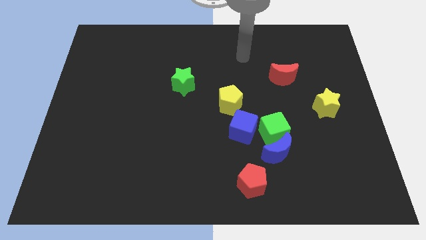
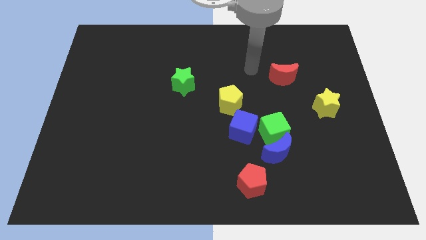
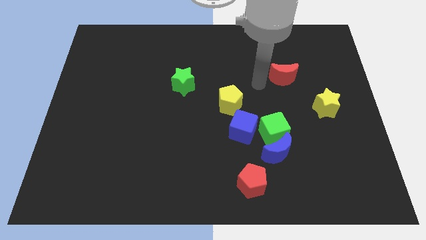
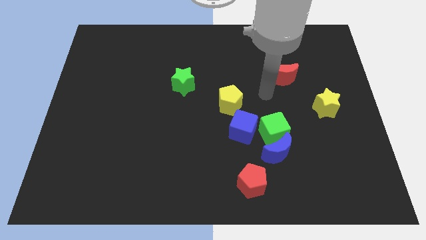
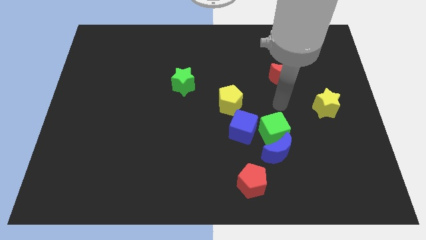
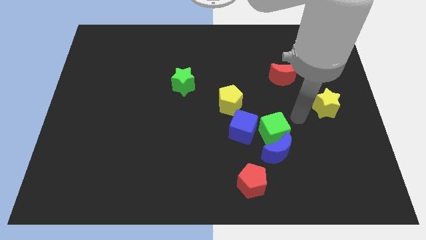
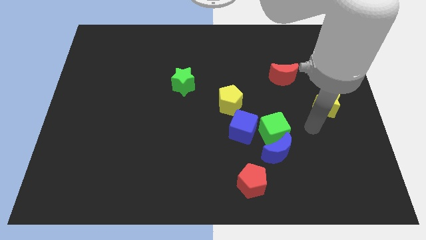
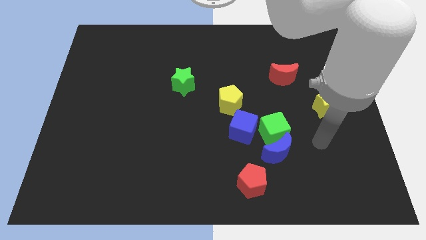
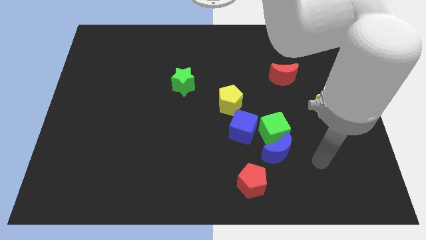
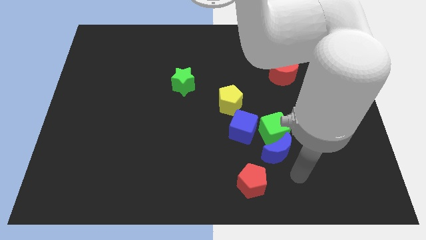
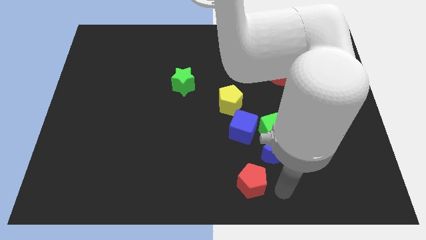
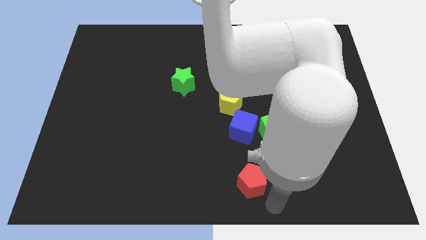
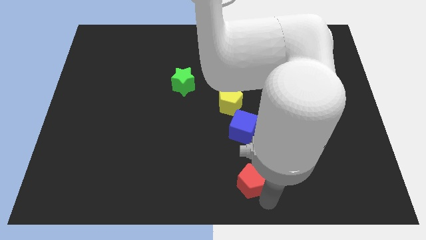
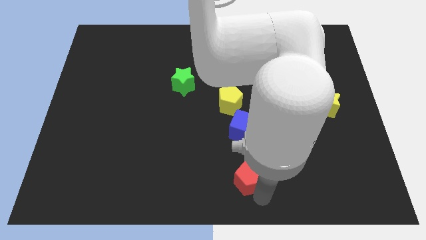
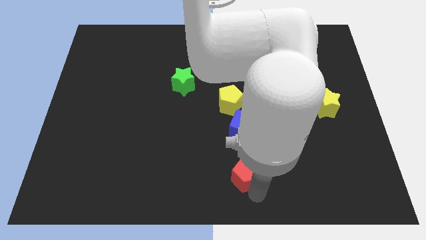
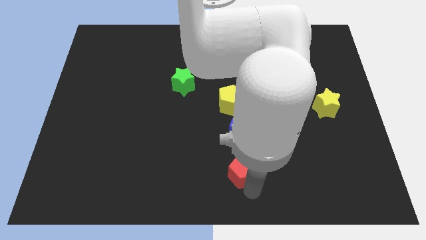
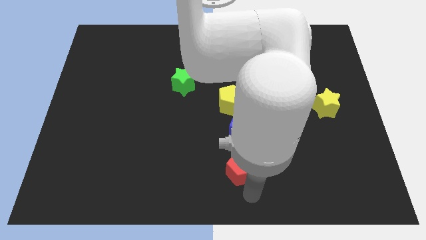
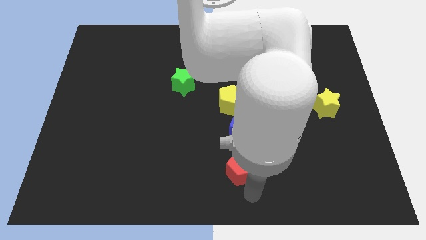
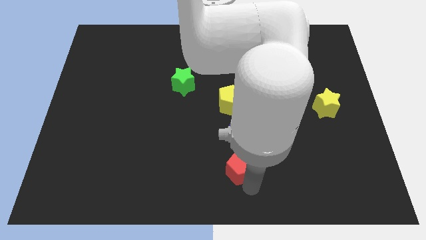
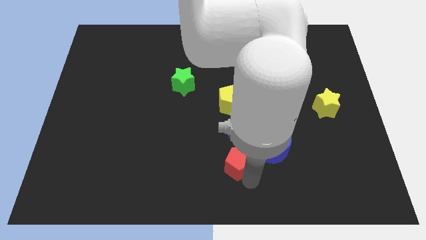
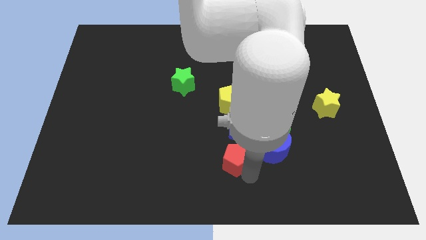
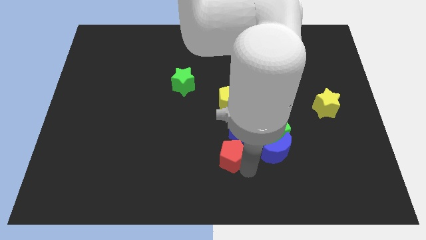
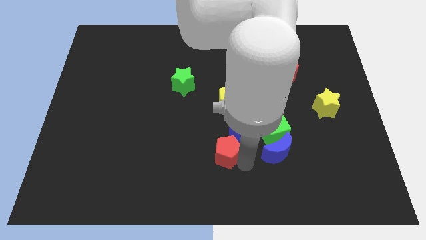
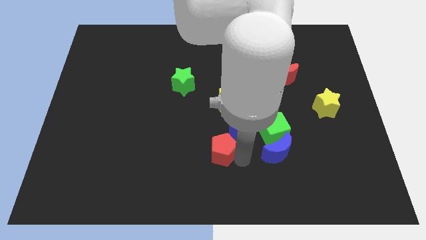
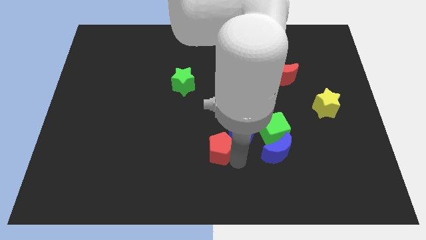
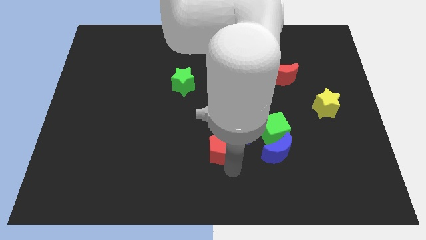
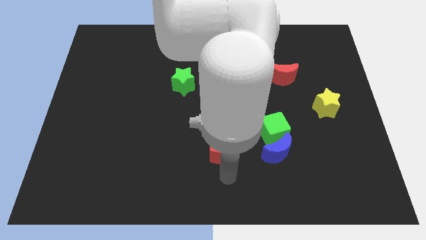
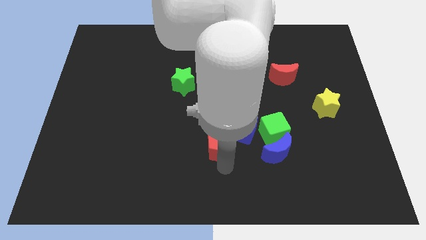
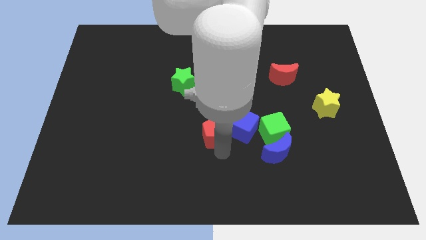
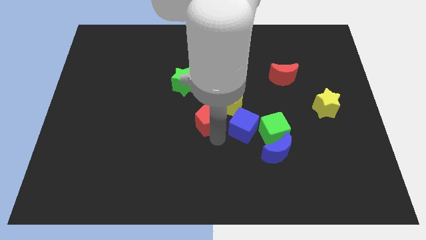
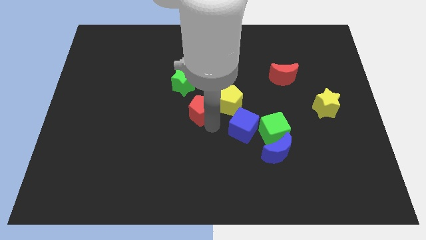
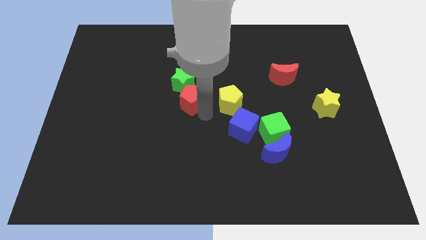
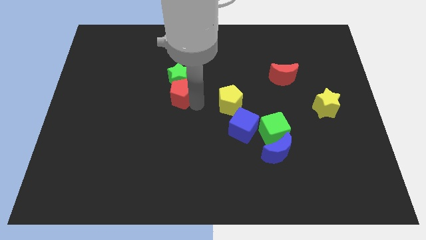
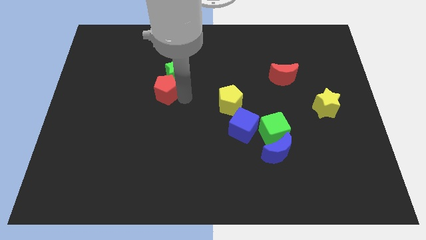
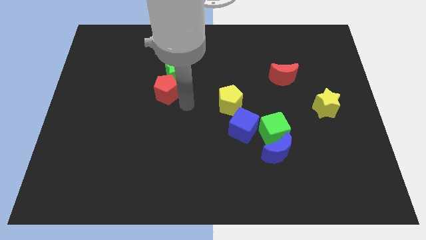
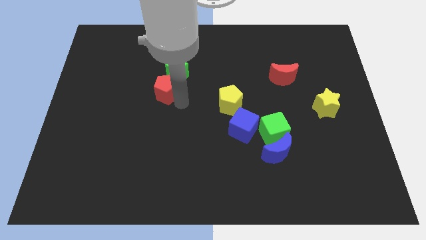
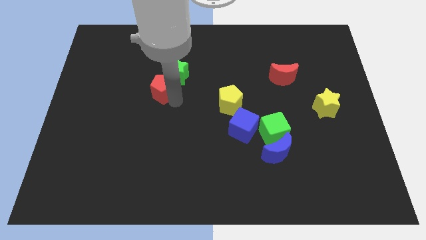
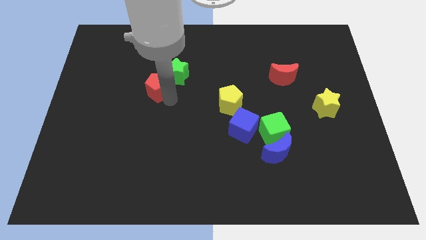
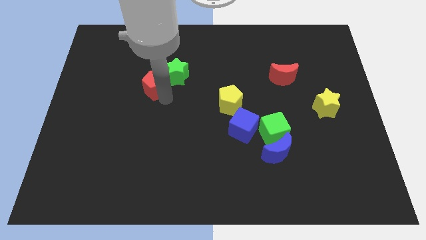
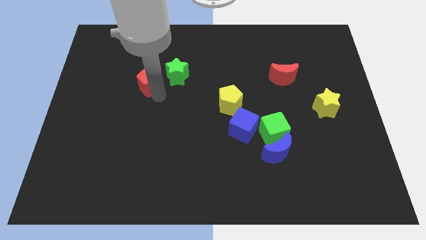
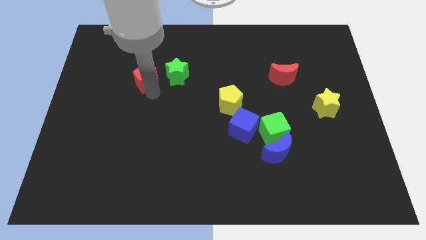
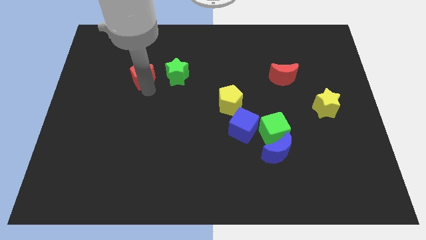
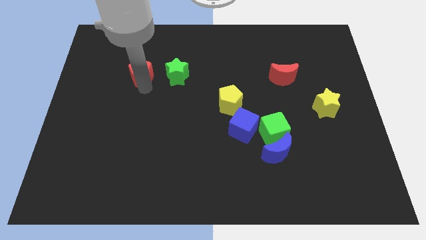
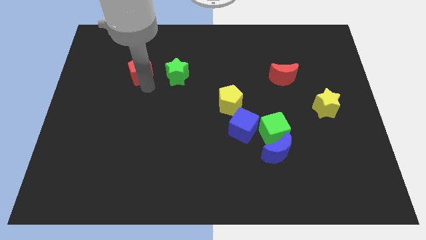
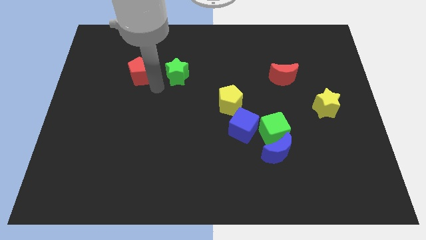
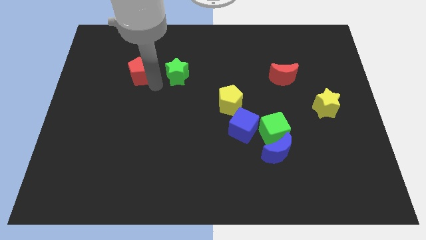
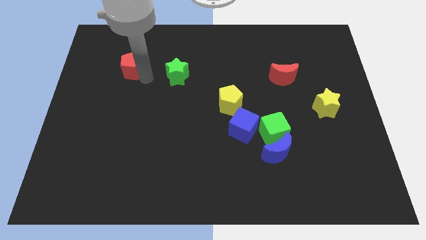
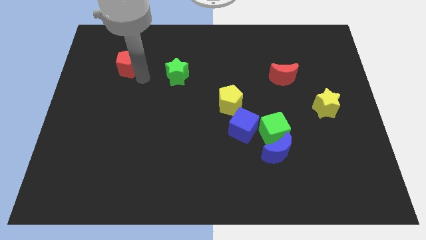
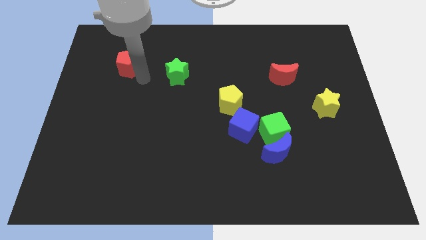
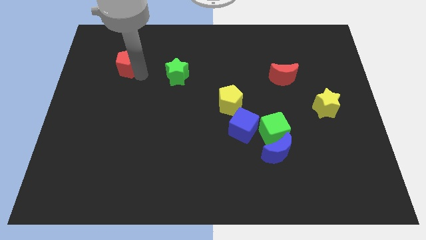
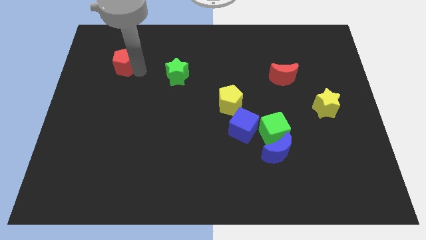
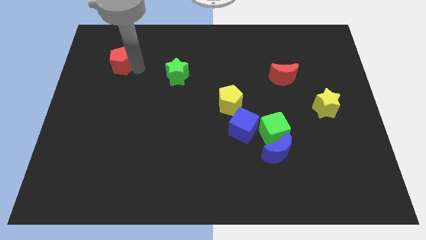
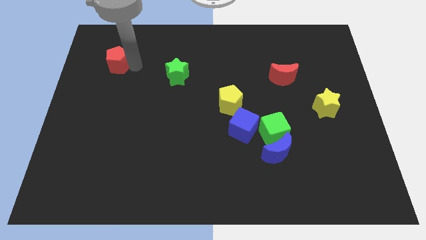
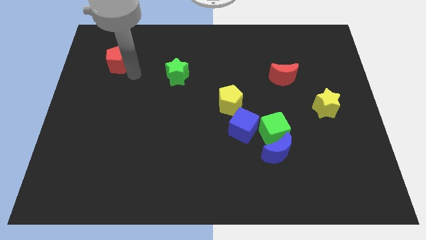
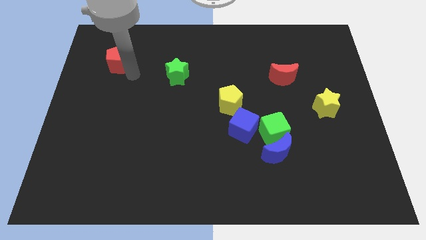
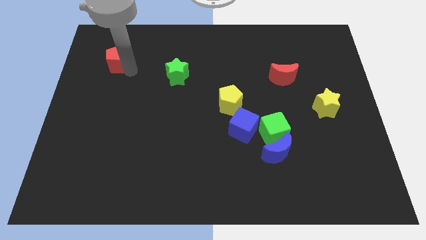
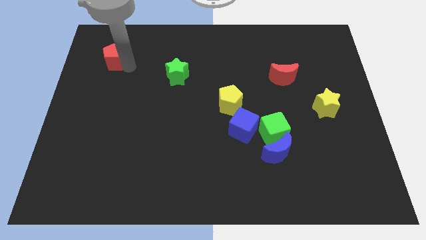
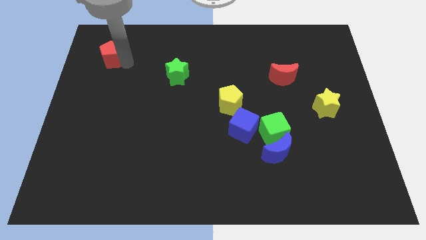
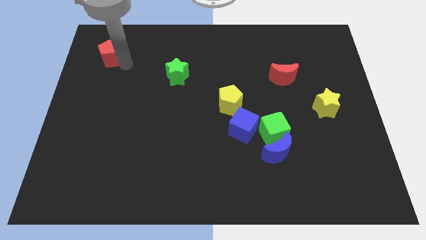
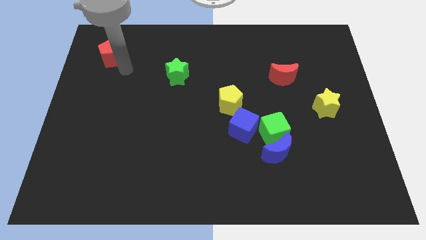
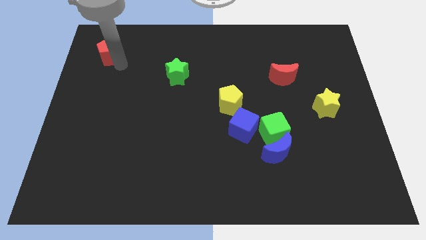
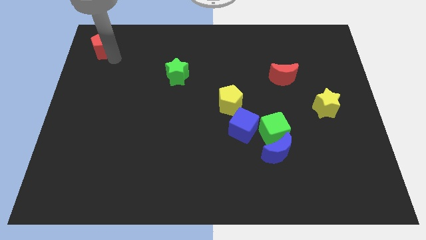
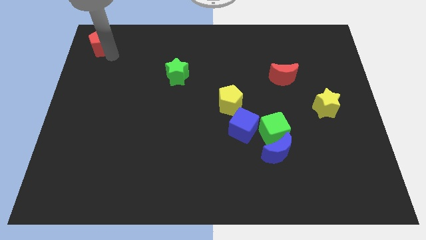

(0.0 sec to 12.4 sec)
slide the red pentagon to the top left of the board

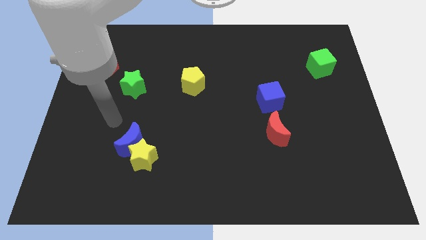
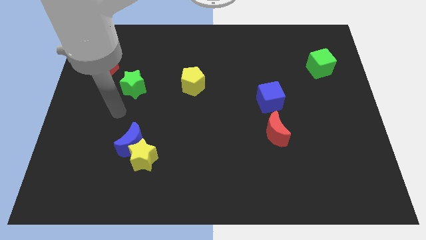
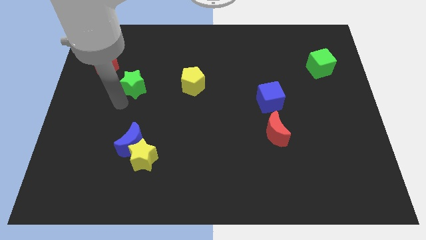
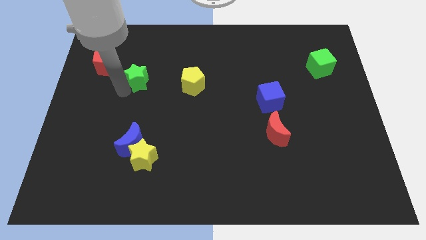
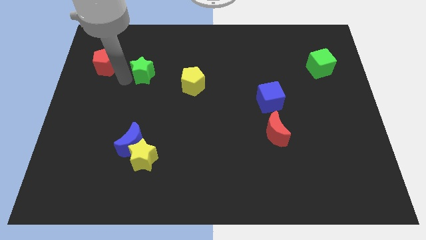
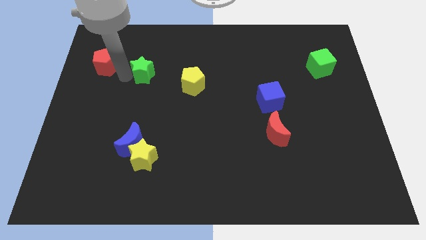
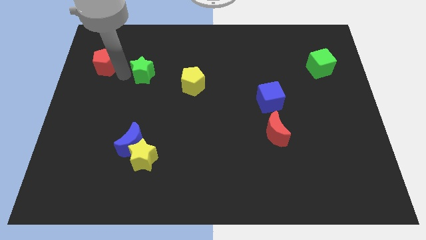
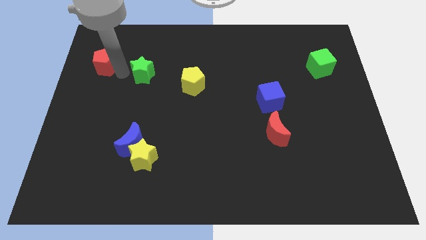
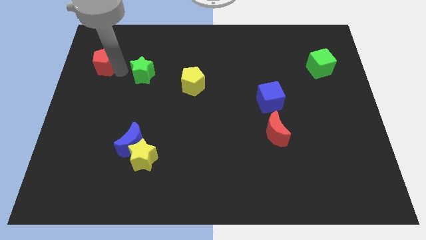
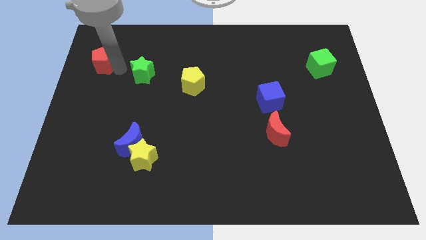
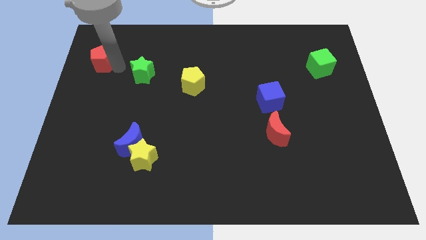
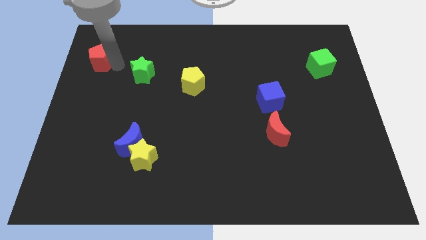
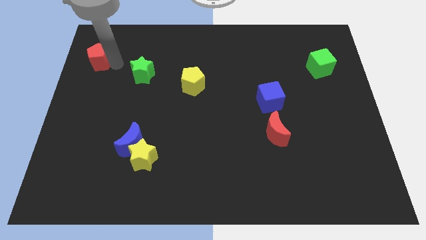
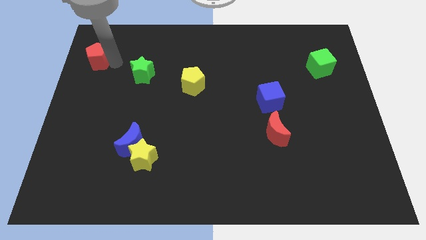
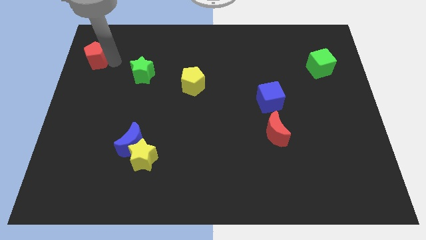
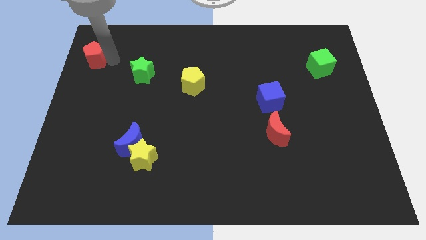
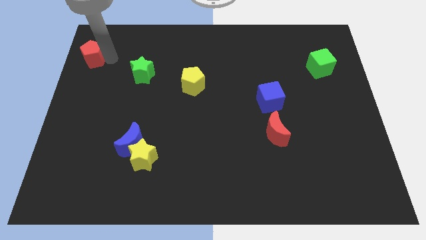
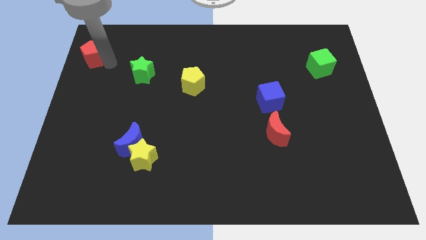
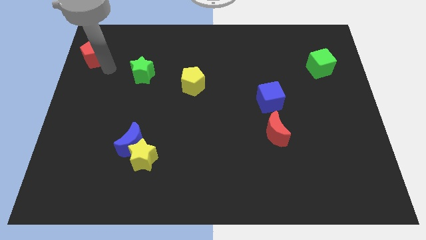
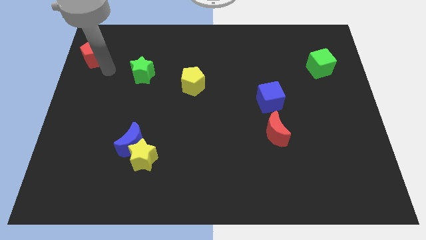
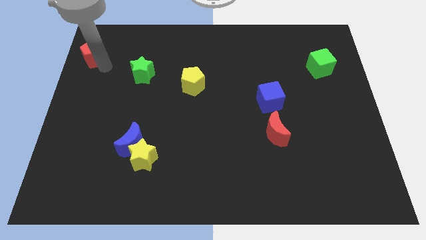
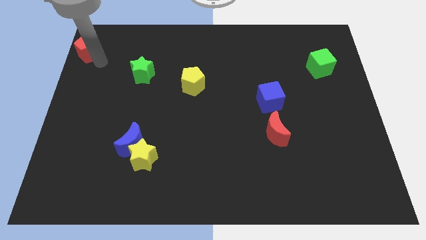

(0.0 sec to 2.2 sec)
slide the red pentagon to the top left
